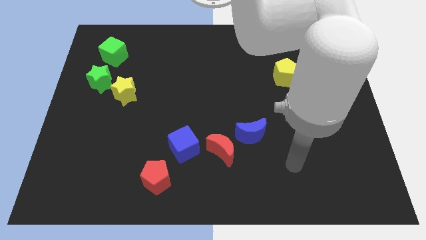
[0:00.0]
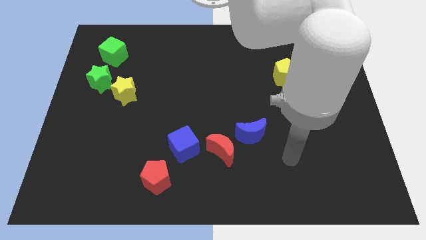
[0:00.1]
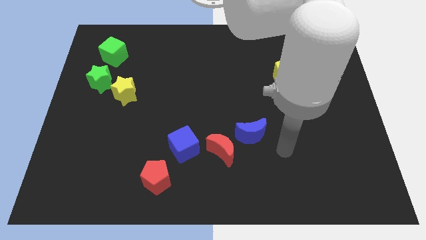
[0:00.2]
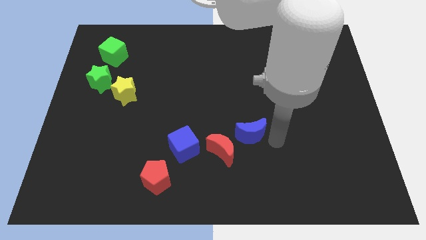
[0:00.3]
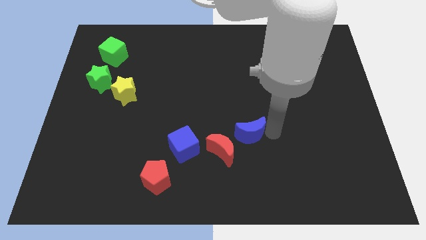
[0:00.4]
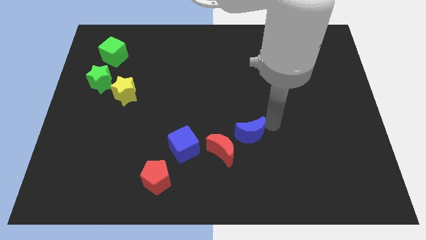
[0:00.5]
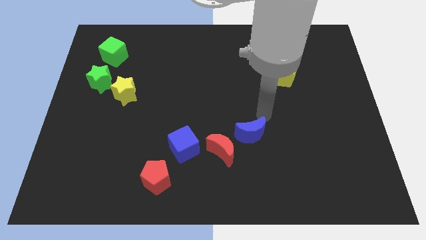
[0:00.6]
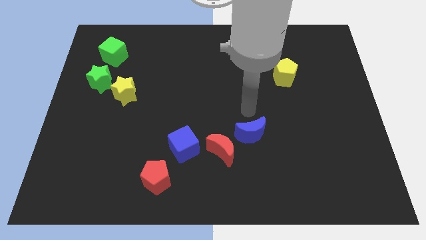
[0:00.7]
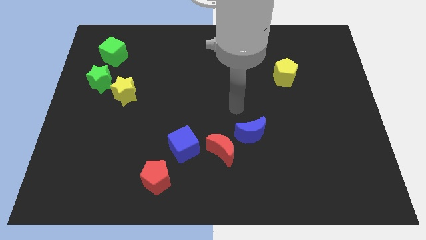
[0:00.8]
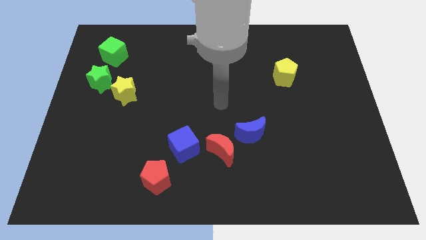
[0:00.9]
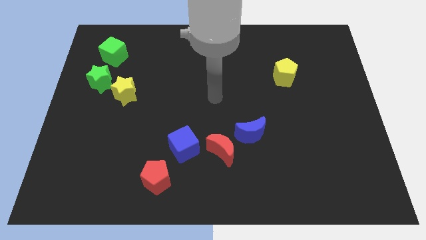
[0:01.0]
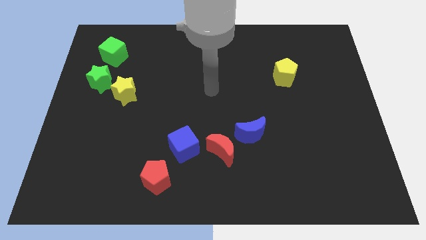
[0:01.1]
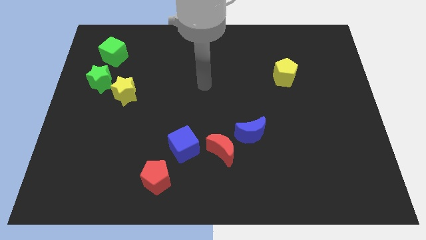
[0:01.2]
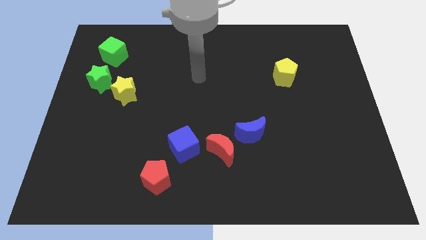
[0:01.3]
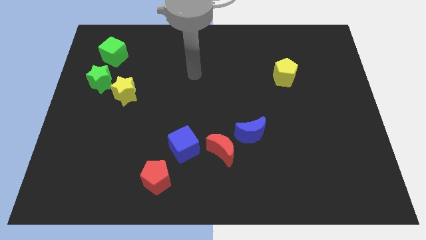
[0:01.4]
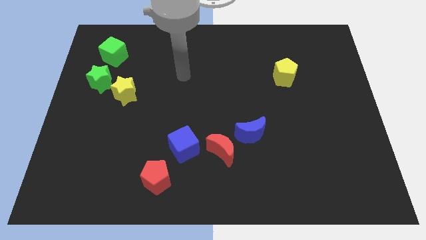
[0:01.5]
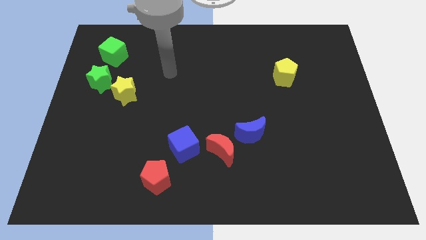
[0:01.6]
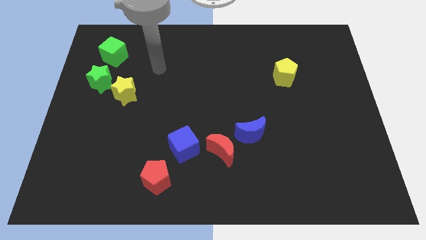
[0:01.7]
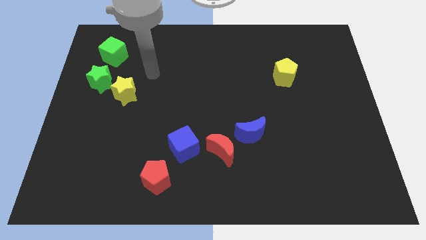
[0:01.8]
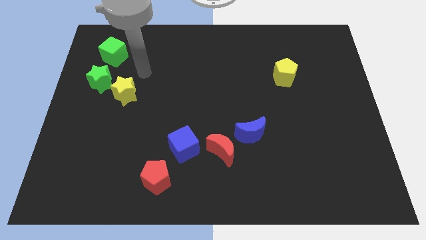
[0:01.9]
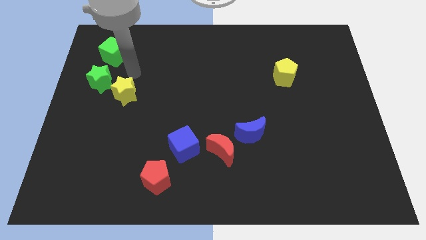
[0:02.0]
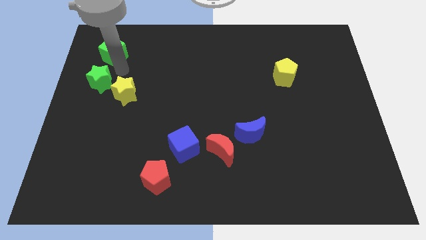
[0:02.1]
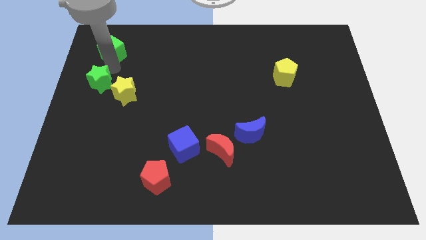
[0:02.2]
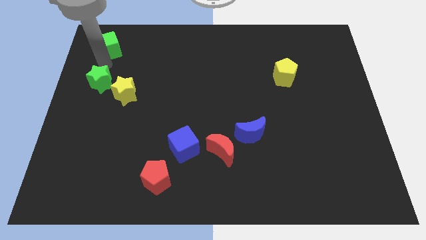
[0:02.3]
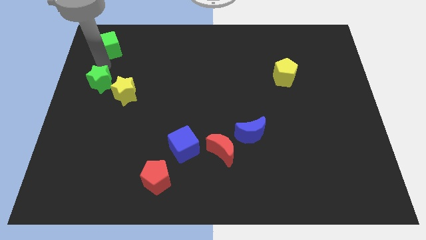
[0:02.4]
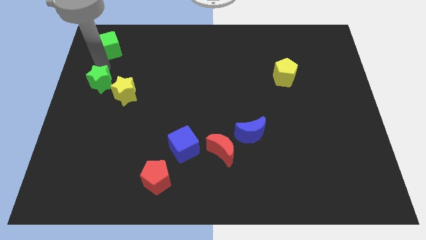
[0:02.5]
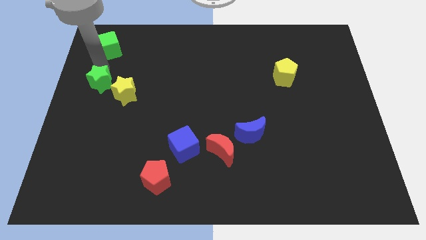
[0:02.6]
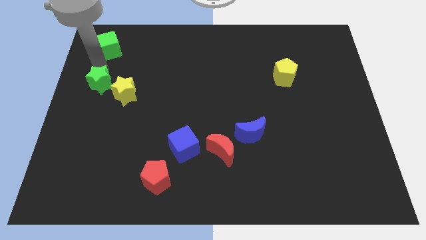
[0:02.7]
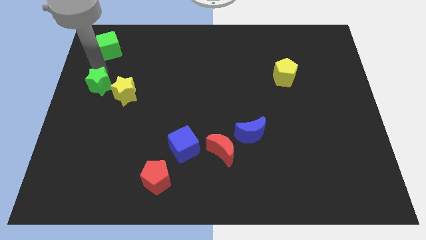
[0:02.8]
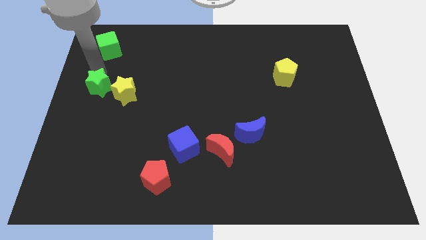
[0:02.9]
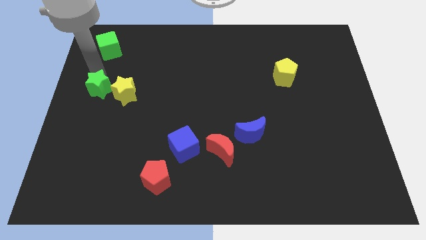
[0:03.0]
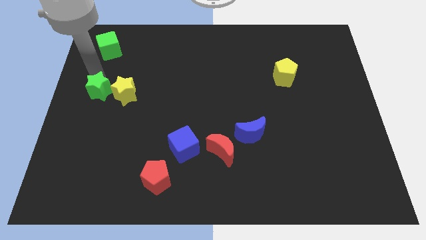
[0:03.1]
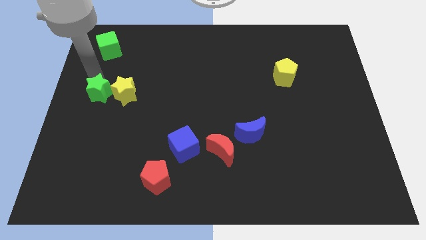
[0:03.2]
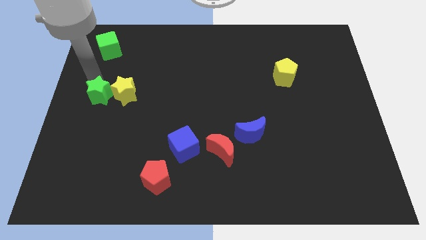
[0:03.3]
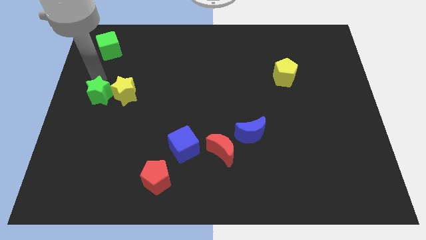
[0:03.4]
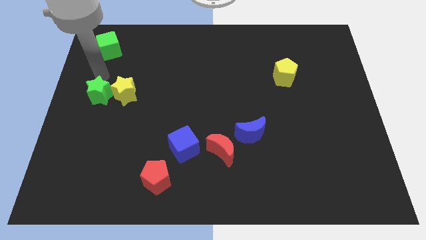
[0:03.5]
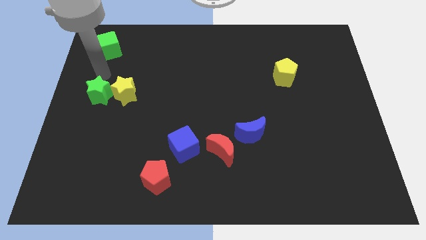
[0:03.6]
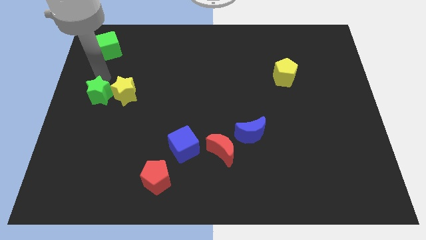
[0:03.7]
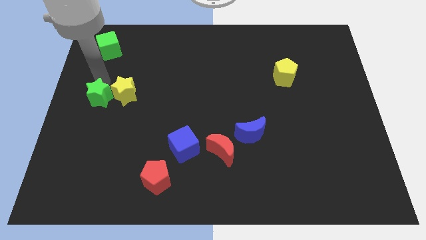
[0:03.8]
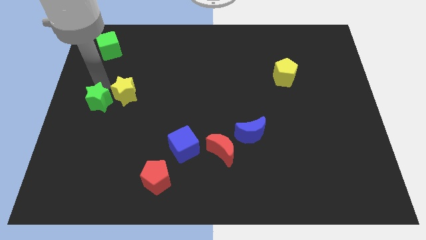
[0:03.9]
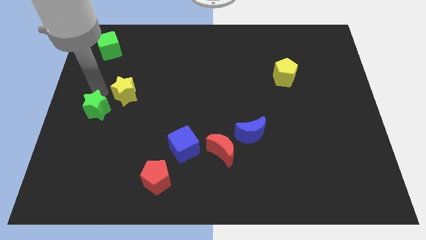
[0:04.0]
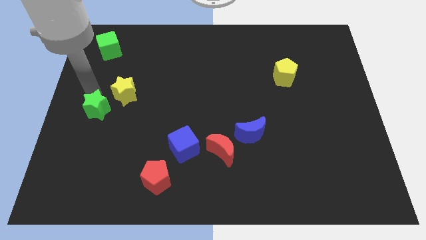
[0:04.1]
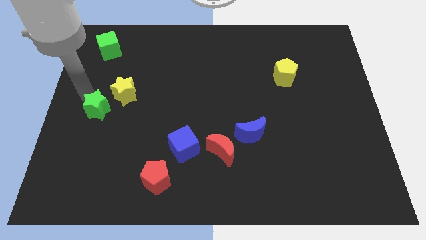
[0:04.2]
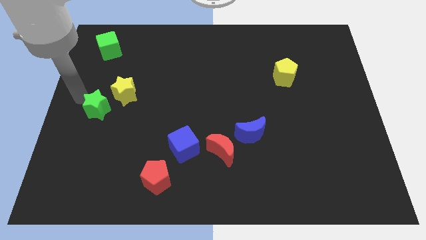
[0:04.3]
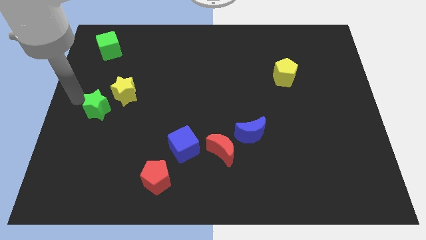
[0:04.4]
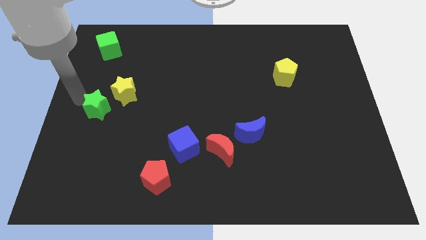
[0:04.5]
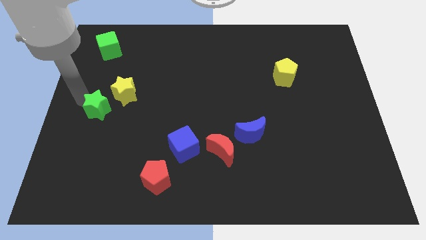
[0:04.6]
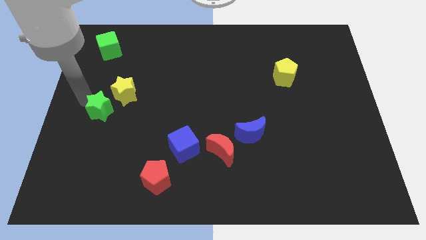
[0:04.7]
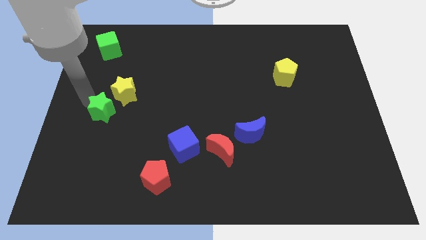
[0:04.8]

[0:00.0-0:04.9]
move the green star somewhat diagonally down and right

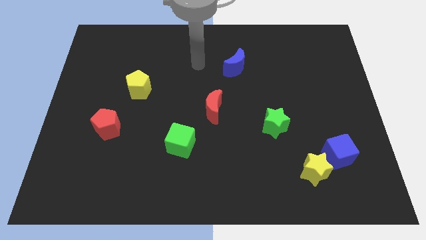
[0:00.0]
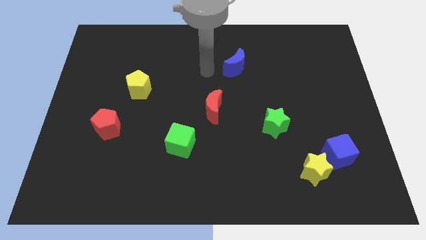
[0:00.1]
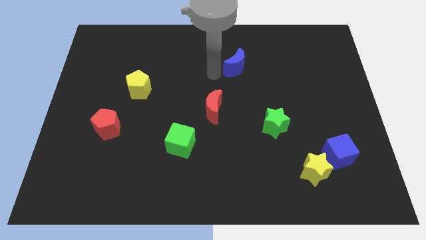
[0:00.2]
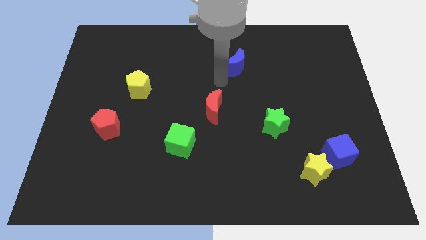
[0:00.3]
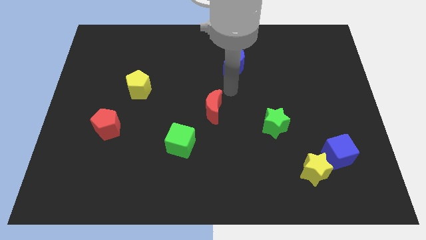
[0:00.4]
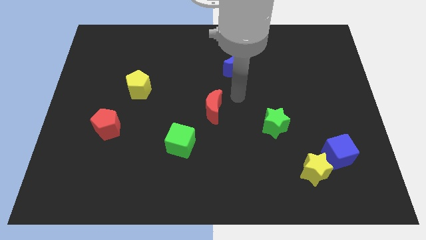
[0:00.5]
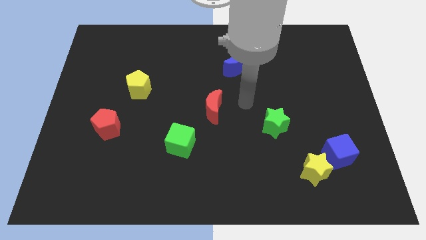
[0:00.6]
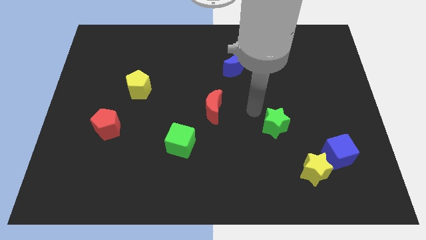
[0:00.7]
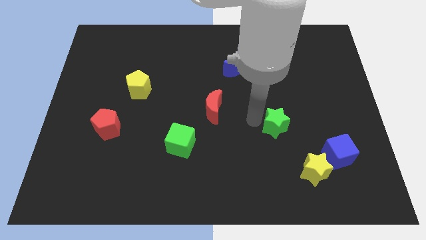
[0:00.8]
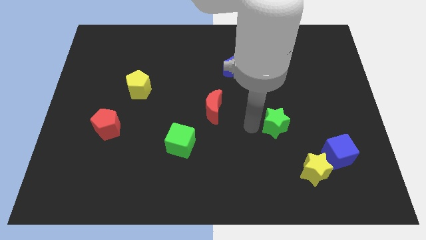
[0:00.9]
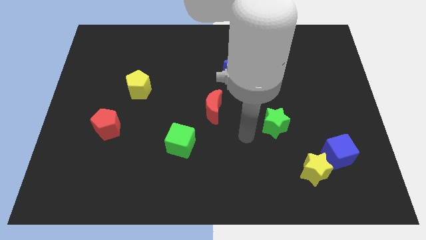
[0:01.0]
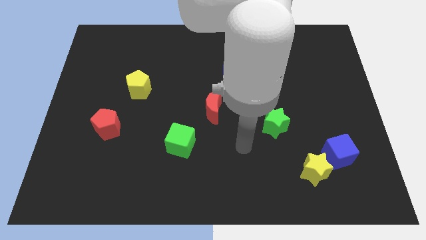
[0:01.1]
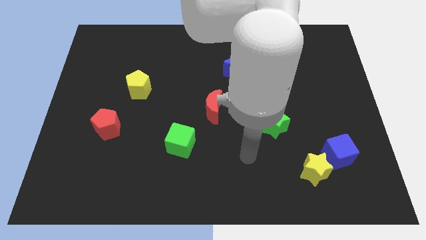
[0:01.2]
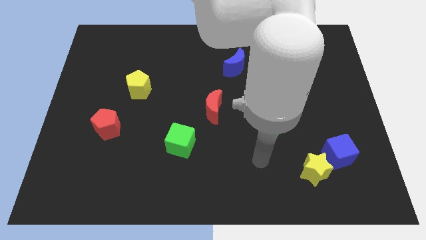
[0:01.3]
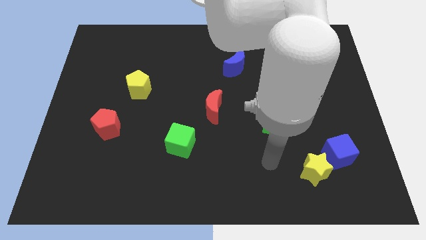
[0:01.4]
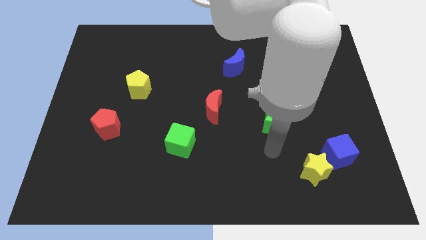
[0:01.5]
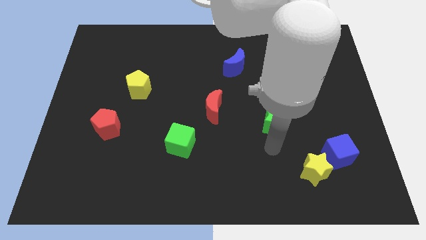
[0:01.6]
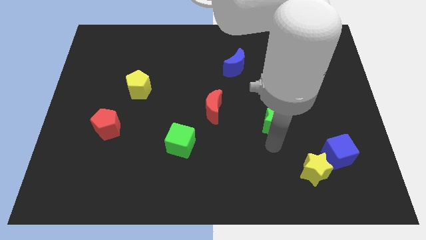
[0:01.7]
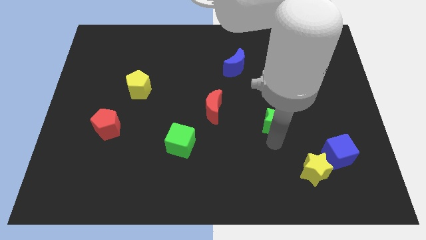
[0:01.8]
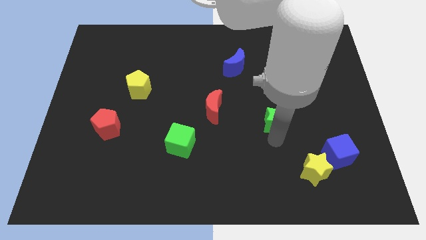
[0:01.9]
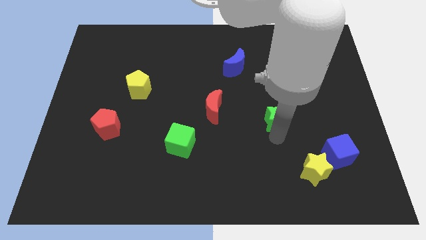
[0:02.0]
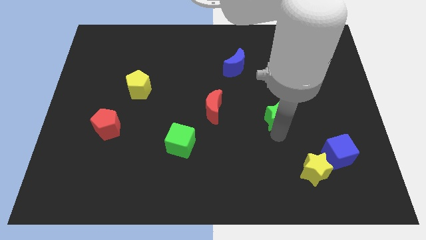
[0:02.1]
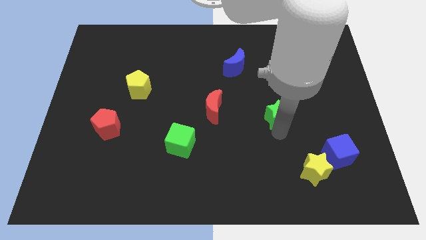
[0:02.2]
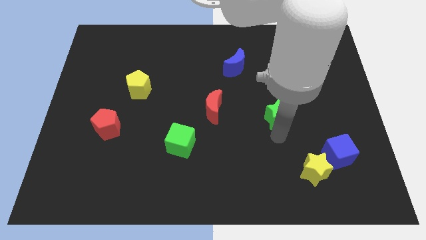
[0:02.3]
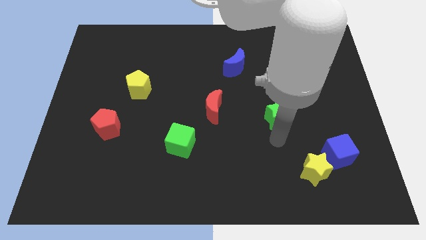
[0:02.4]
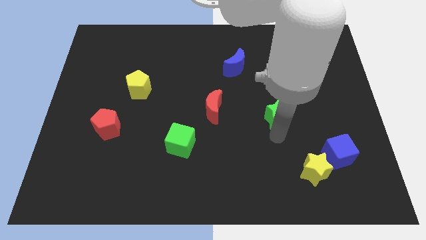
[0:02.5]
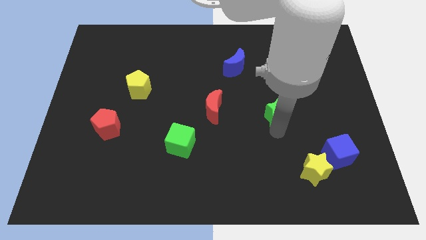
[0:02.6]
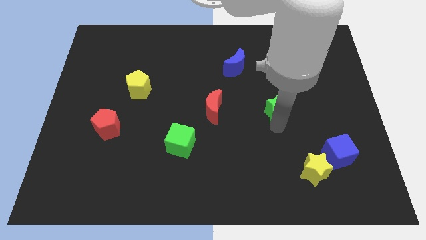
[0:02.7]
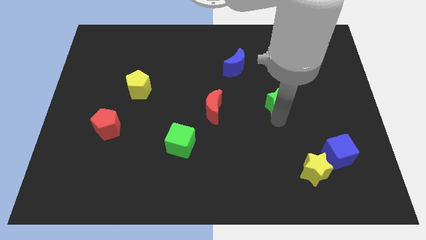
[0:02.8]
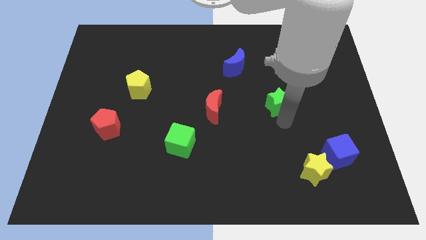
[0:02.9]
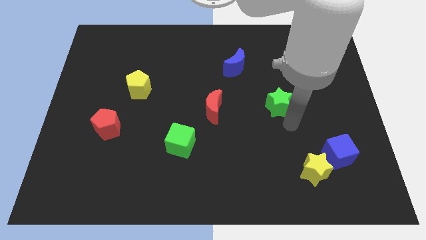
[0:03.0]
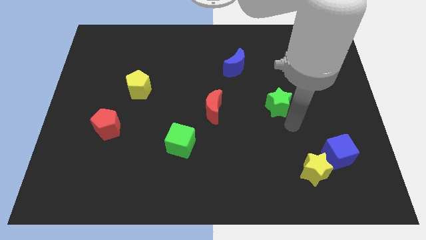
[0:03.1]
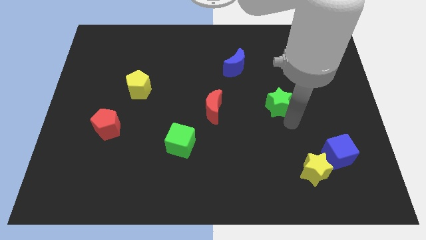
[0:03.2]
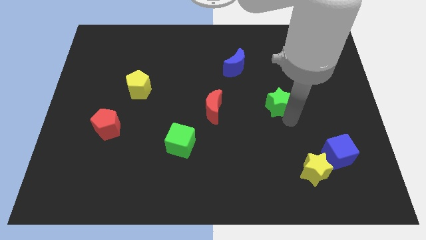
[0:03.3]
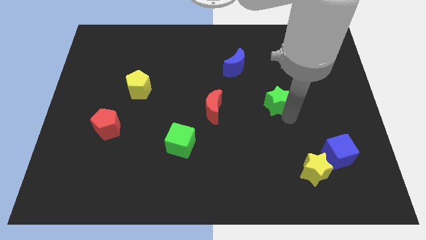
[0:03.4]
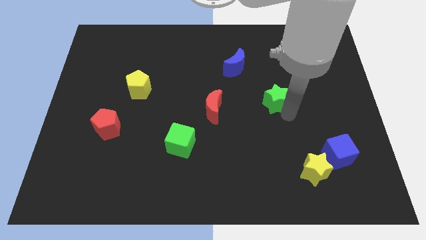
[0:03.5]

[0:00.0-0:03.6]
slightly push the green star upwards
